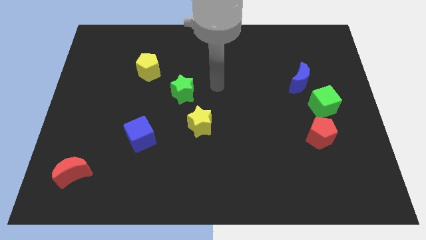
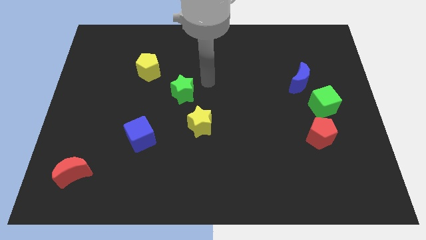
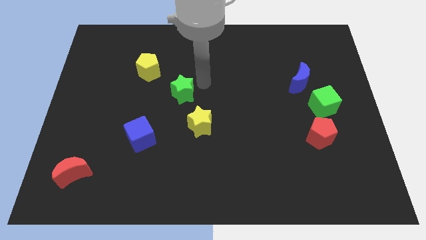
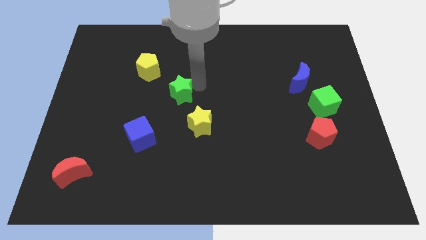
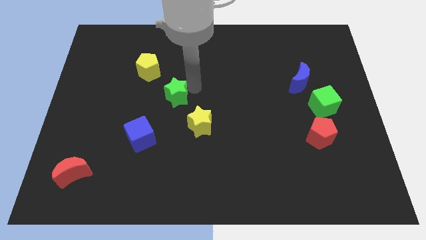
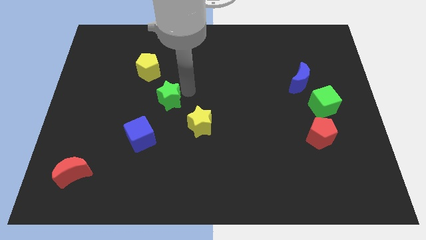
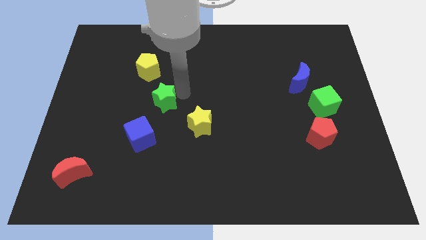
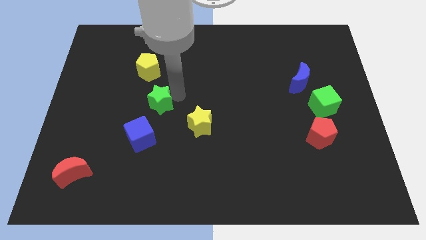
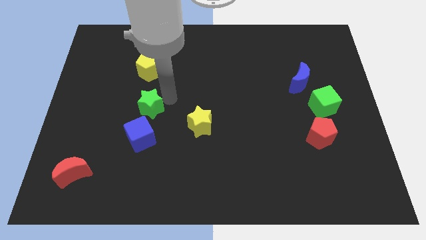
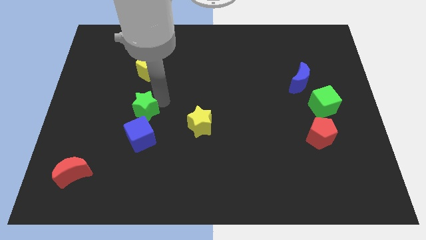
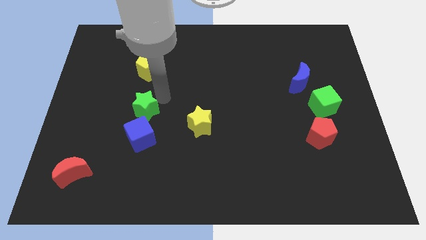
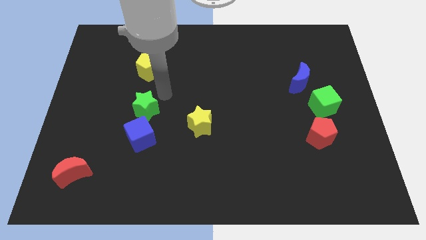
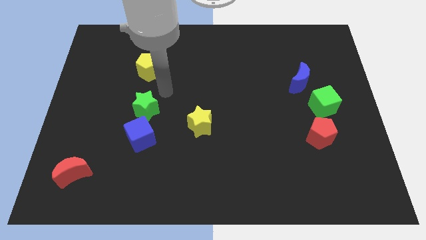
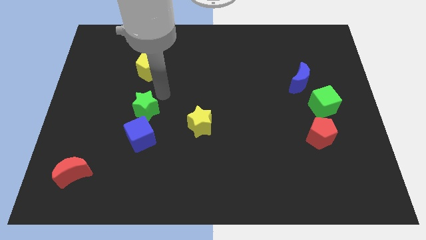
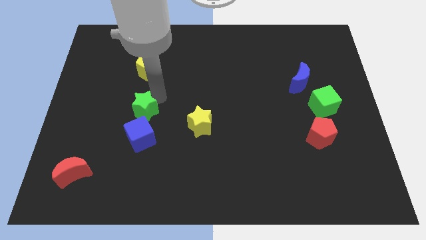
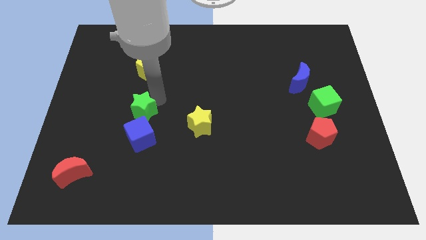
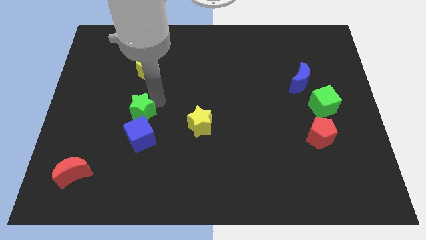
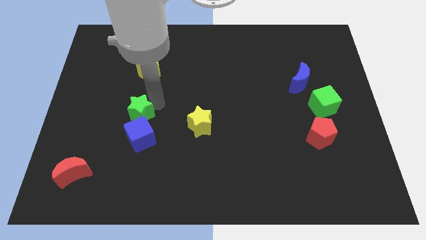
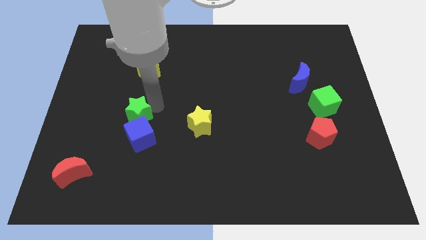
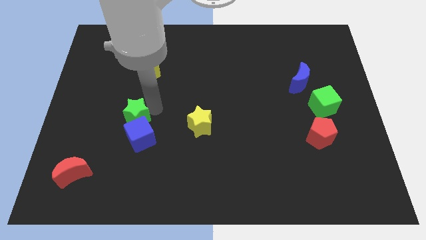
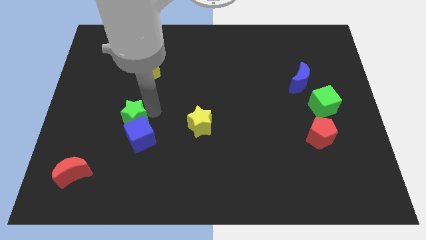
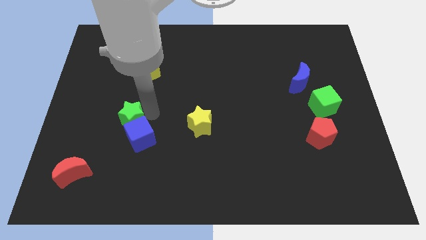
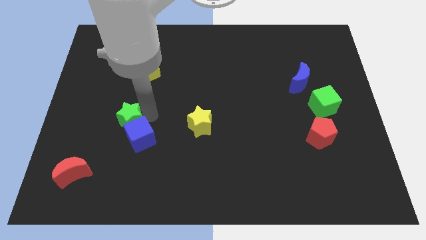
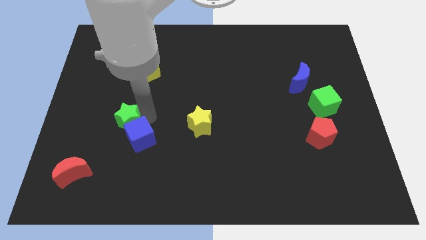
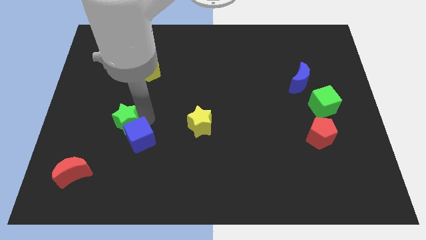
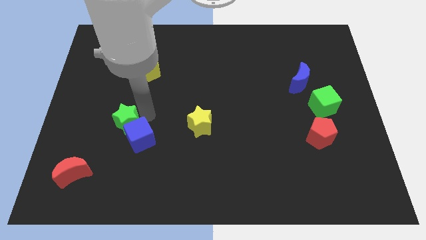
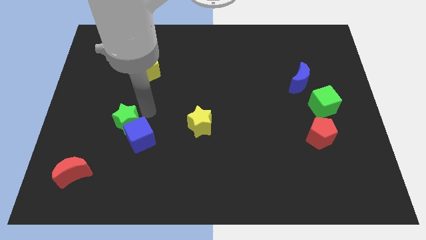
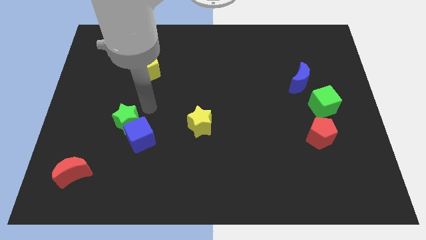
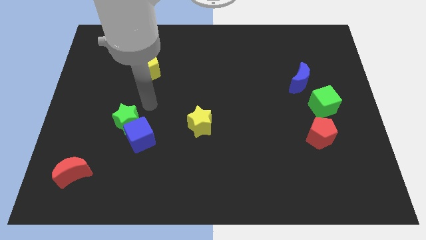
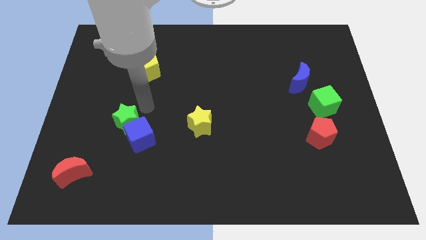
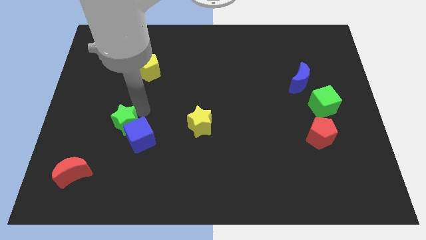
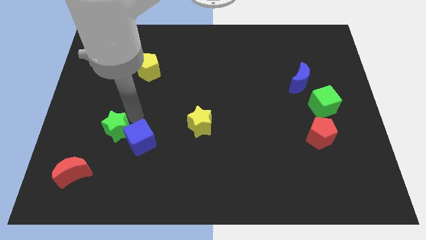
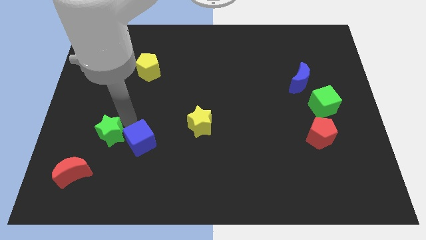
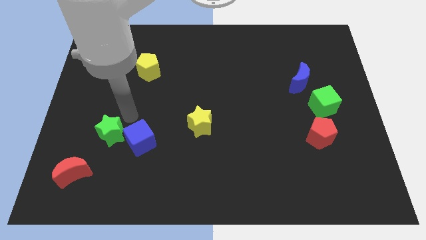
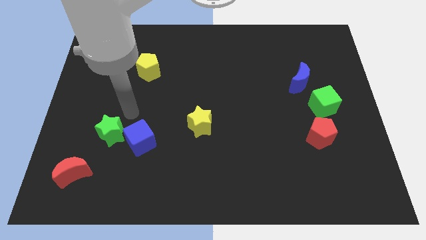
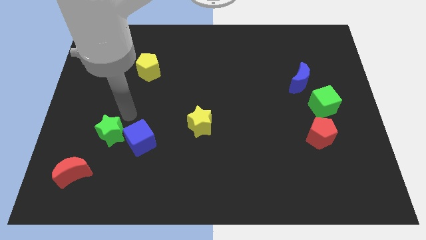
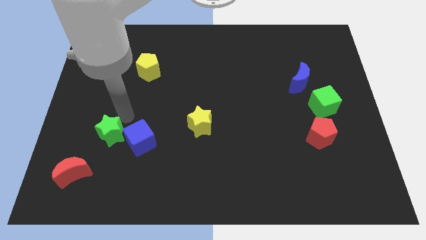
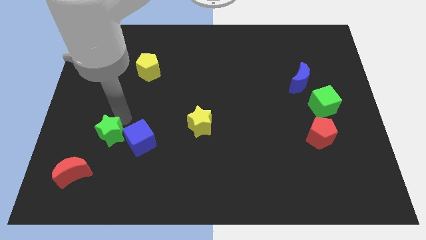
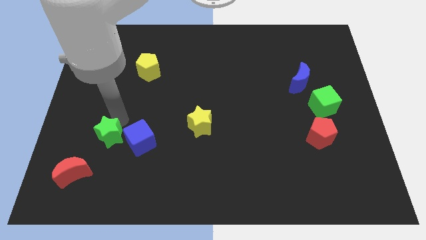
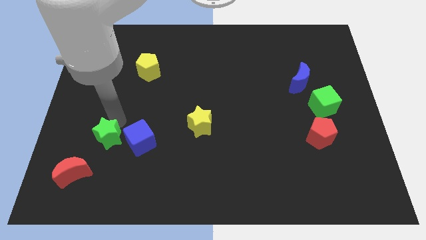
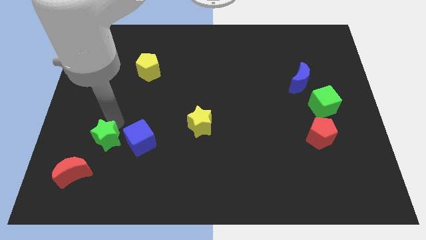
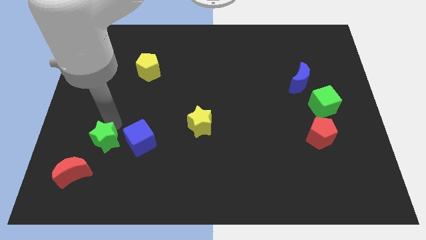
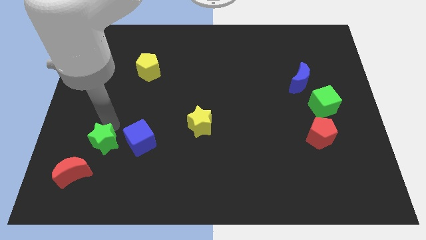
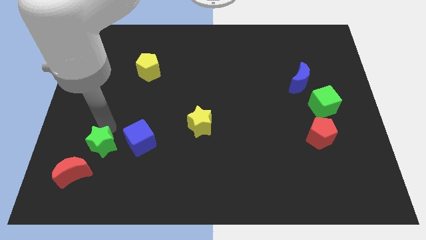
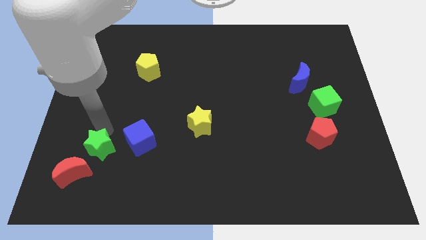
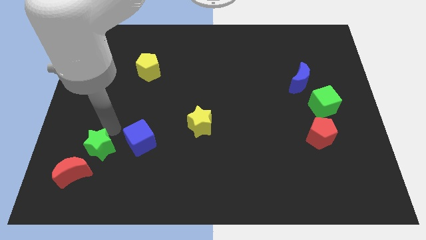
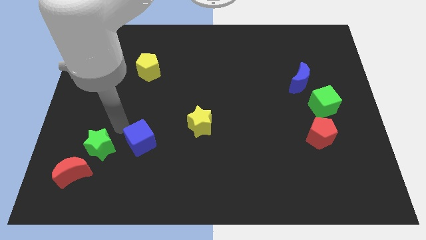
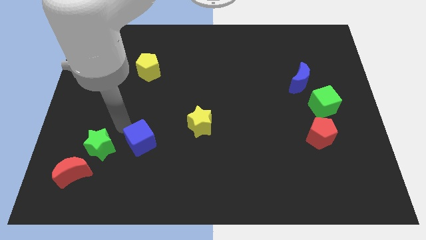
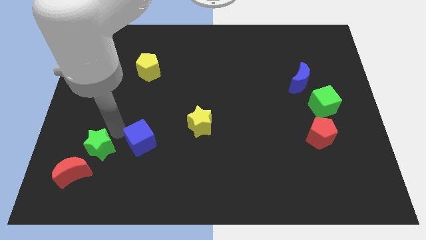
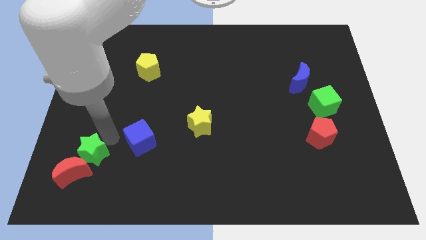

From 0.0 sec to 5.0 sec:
put the green star next to the red moon

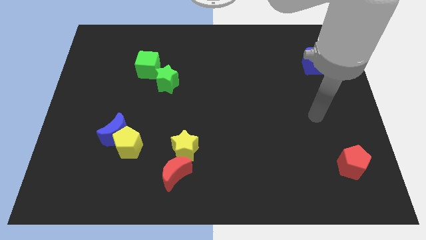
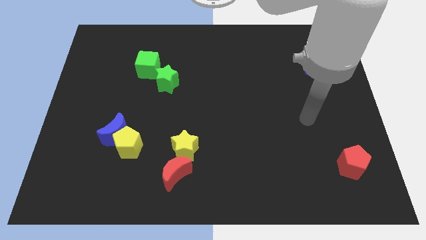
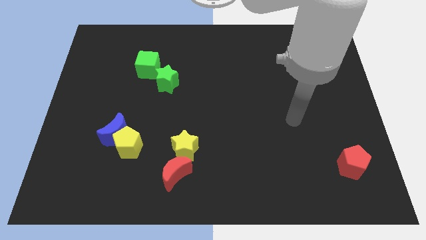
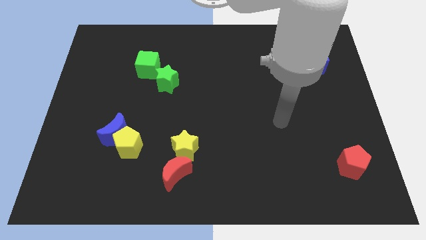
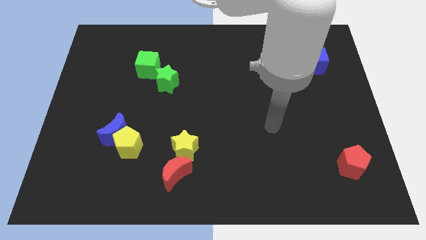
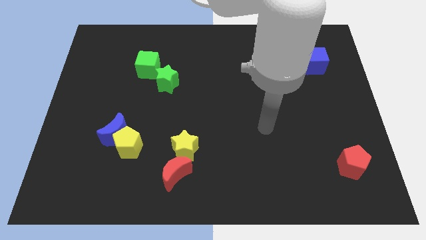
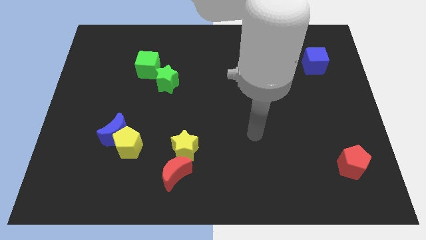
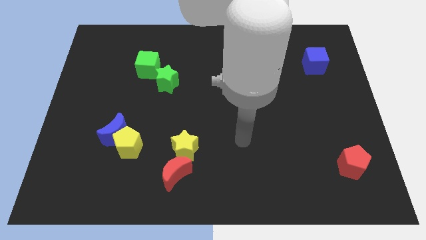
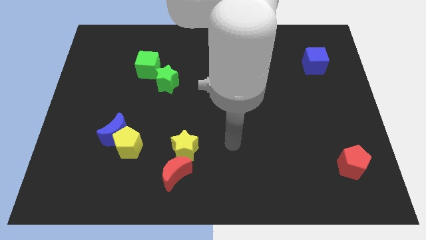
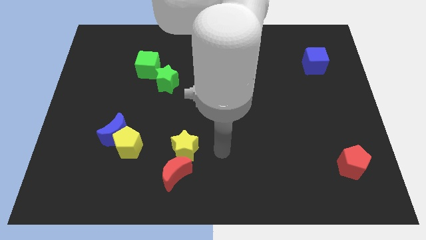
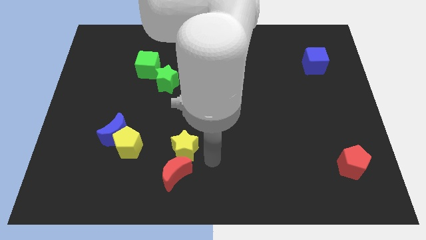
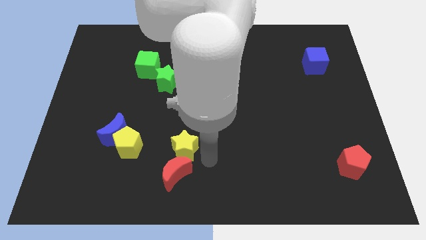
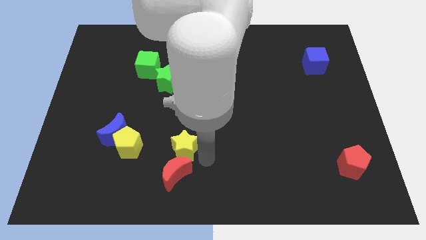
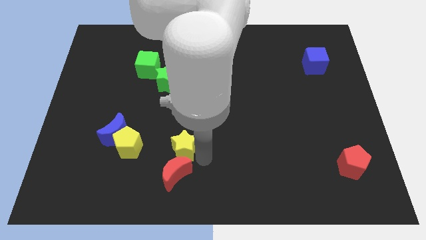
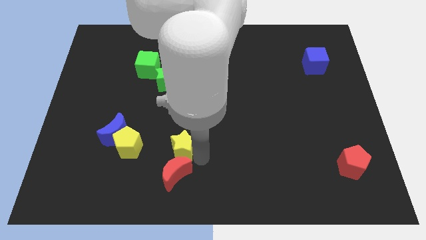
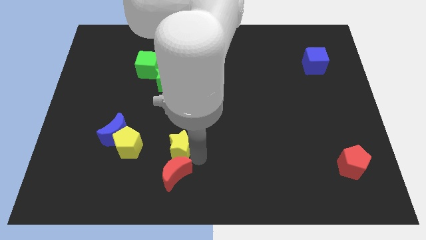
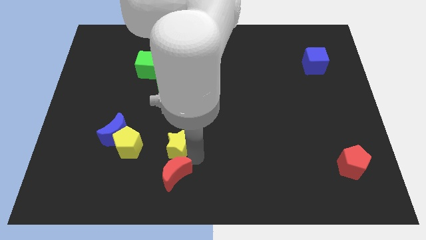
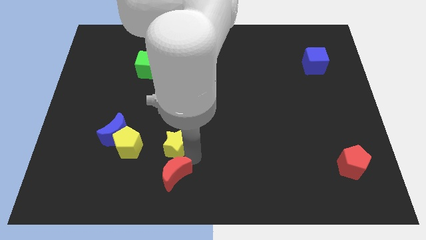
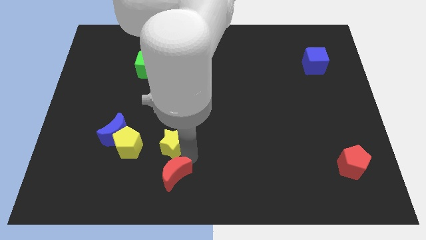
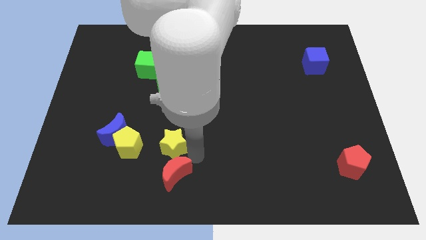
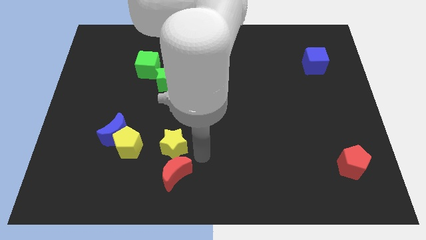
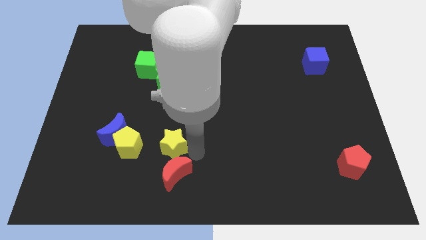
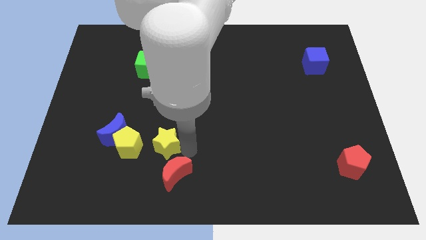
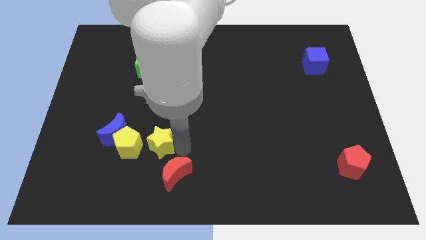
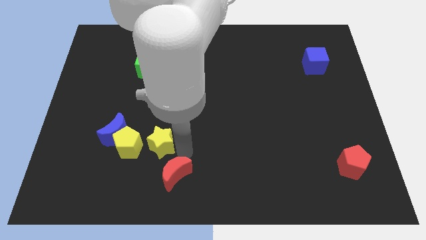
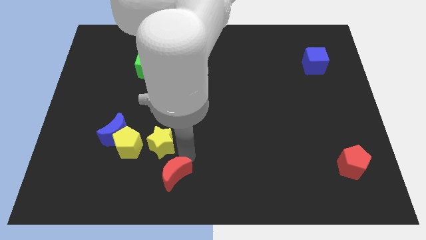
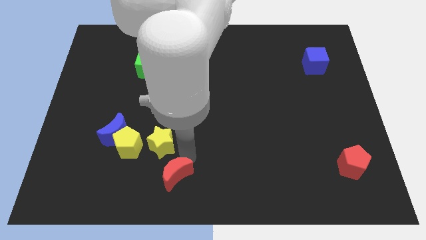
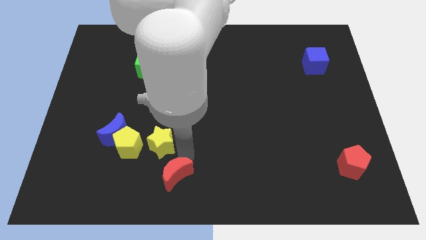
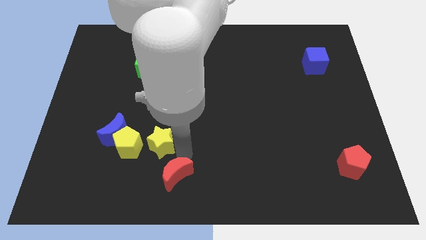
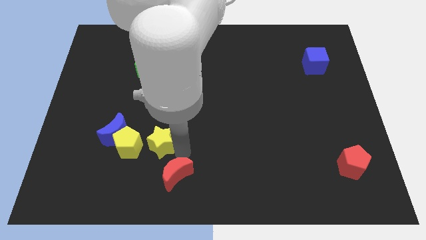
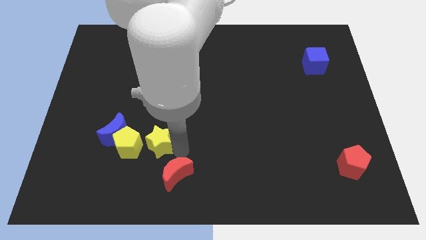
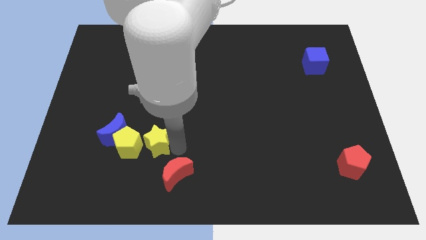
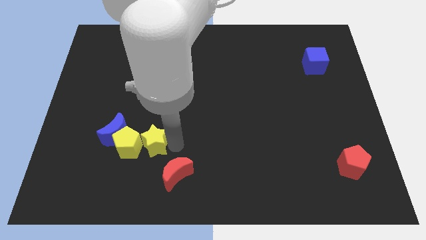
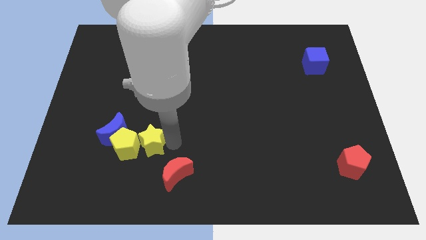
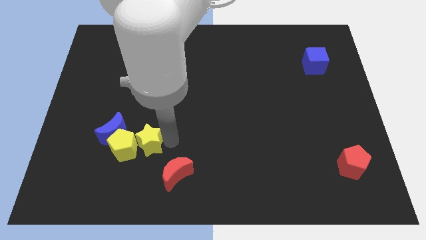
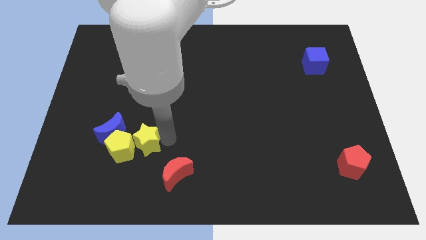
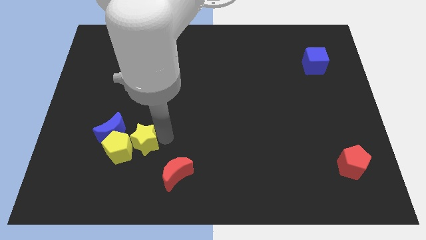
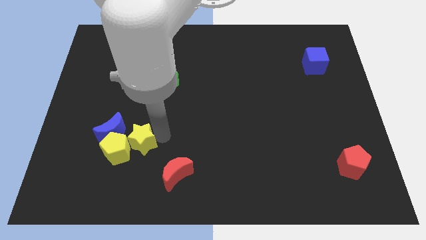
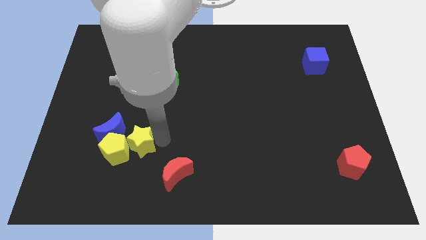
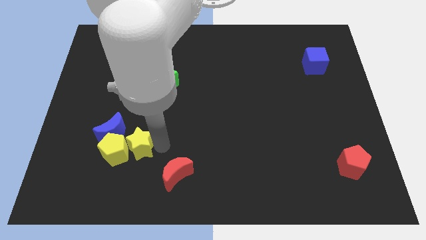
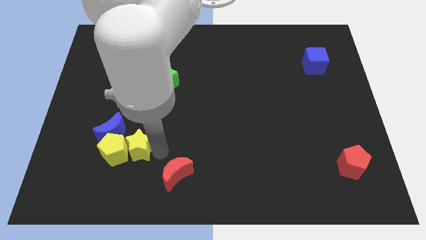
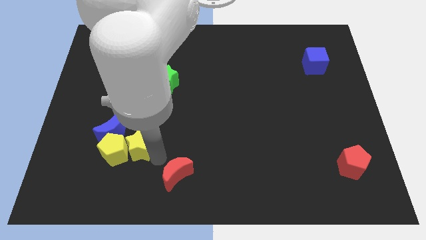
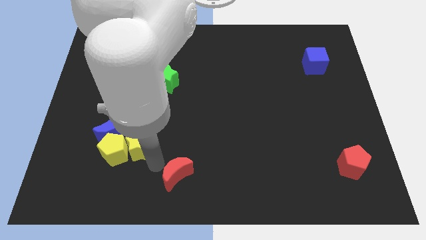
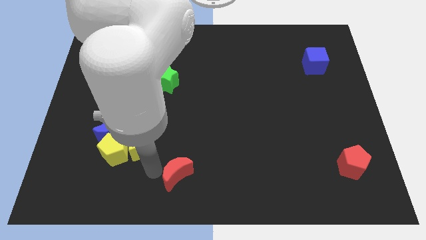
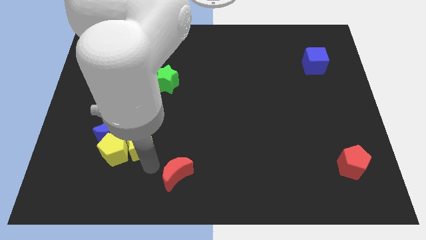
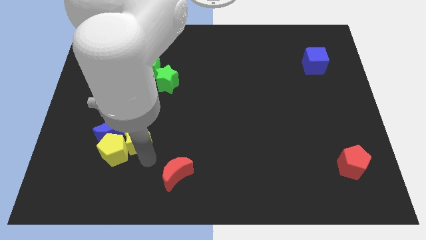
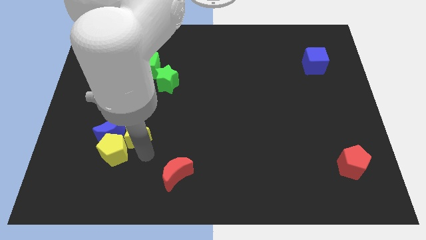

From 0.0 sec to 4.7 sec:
slide the yellow star towards the blue moon
